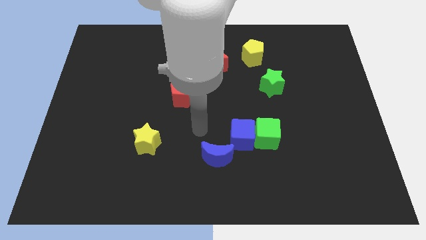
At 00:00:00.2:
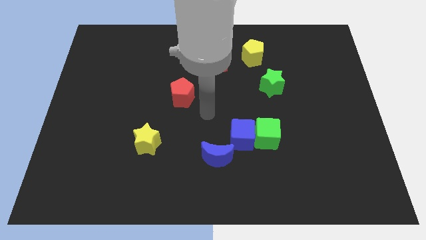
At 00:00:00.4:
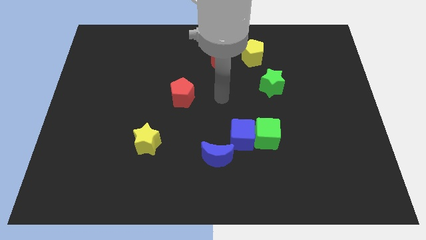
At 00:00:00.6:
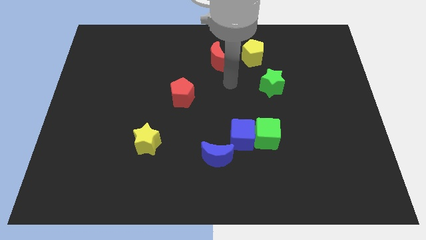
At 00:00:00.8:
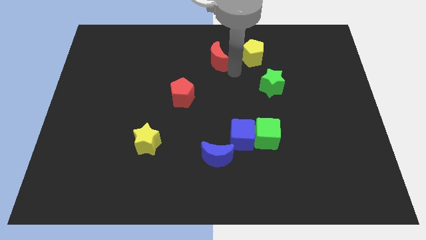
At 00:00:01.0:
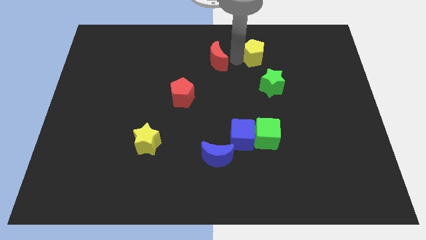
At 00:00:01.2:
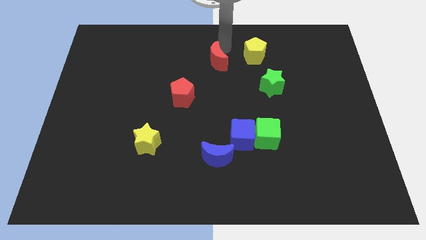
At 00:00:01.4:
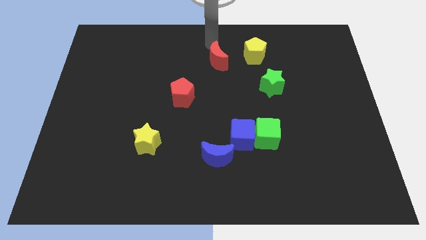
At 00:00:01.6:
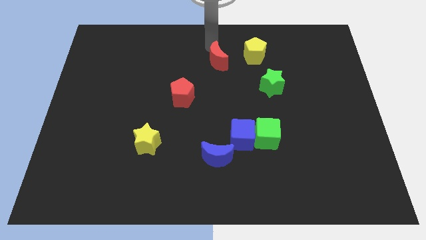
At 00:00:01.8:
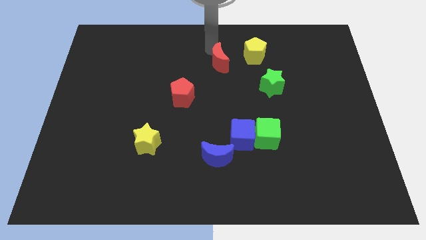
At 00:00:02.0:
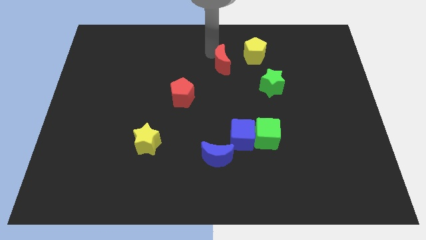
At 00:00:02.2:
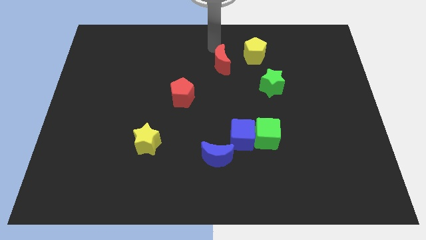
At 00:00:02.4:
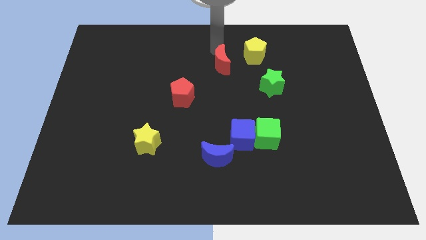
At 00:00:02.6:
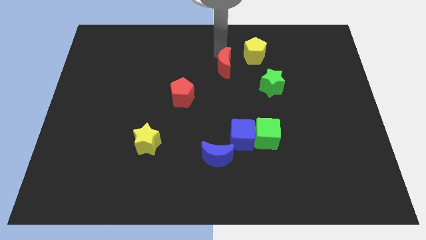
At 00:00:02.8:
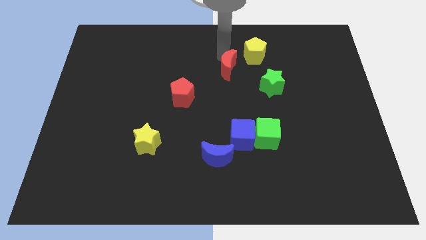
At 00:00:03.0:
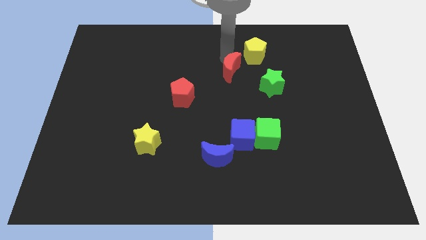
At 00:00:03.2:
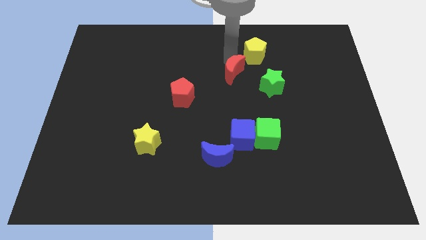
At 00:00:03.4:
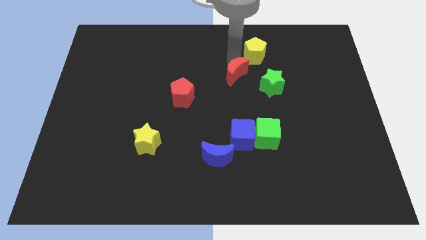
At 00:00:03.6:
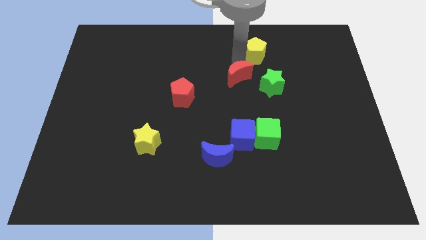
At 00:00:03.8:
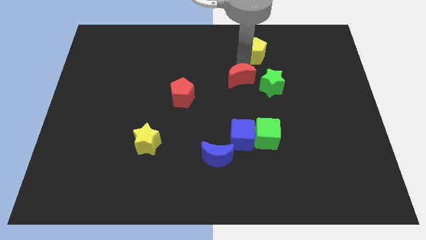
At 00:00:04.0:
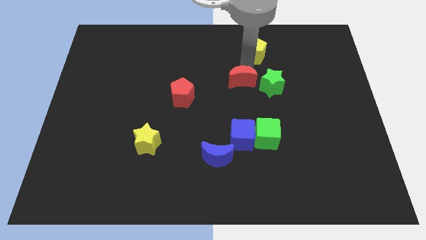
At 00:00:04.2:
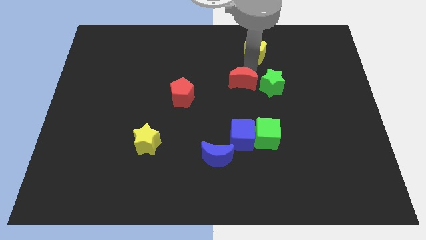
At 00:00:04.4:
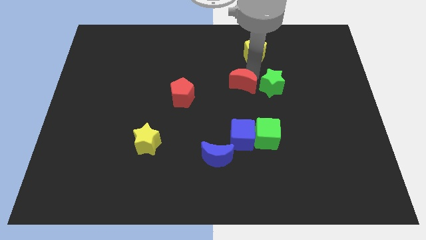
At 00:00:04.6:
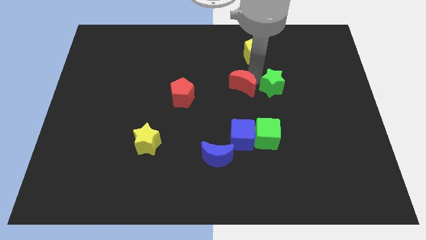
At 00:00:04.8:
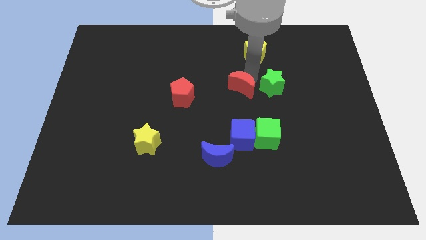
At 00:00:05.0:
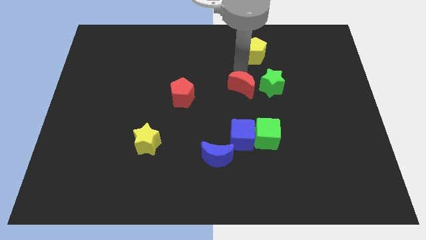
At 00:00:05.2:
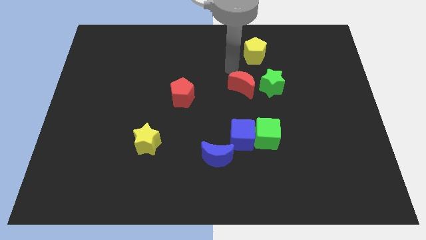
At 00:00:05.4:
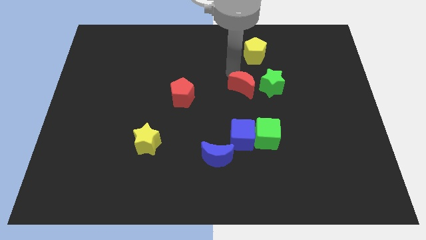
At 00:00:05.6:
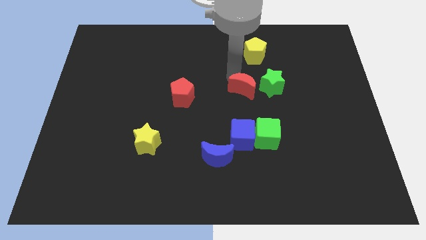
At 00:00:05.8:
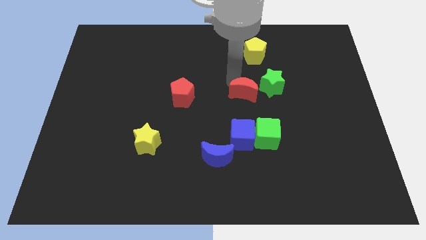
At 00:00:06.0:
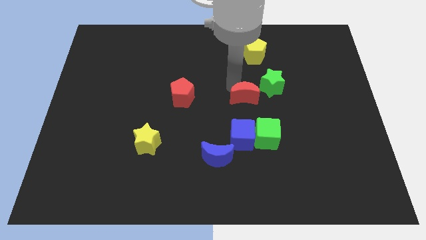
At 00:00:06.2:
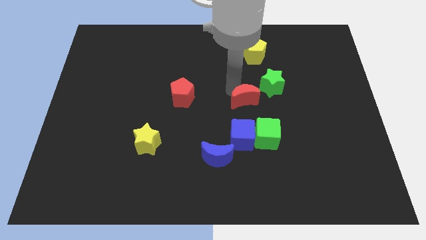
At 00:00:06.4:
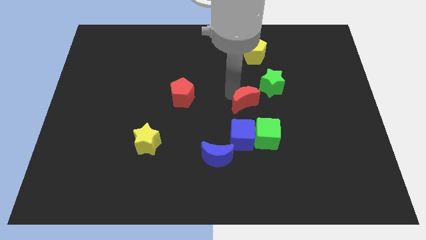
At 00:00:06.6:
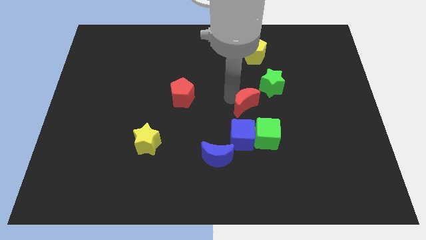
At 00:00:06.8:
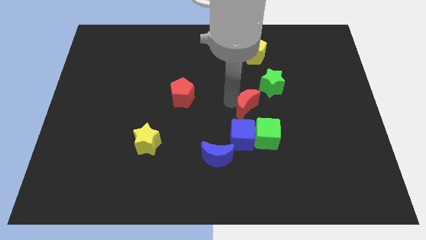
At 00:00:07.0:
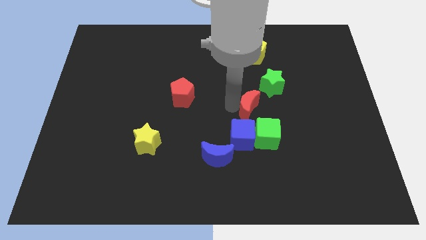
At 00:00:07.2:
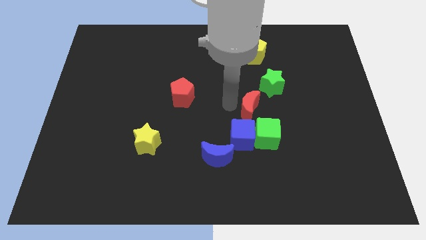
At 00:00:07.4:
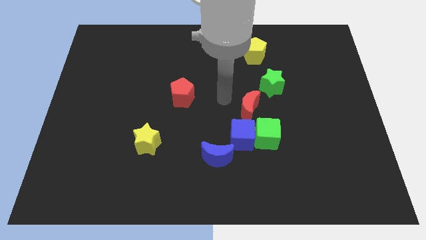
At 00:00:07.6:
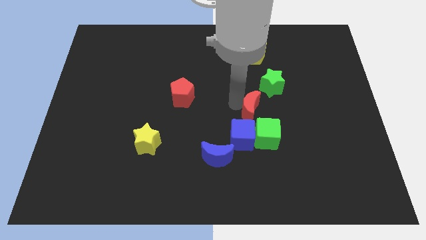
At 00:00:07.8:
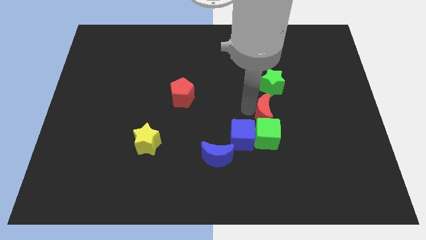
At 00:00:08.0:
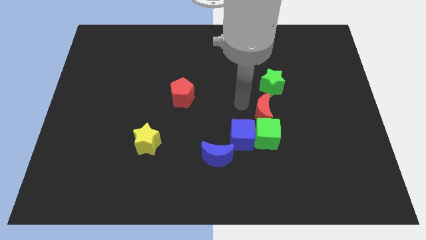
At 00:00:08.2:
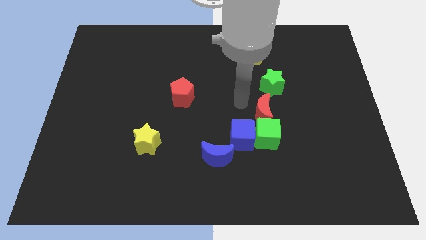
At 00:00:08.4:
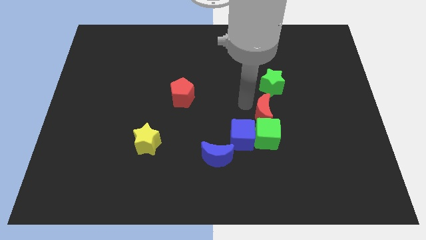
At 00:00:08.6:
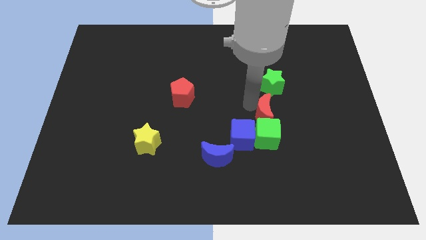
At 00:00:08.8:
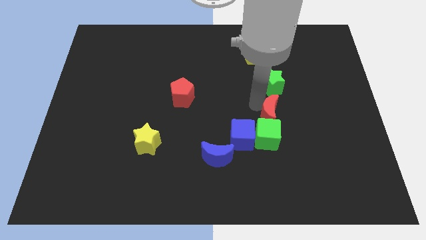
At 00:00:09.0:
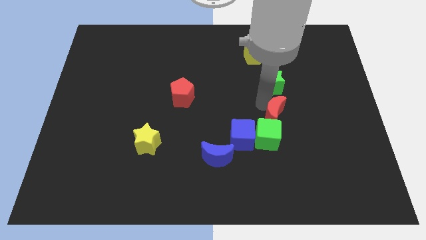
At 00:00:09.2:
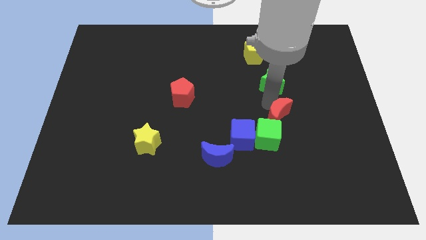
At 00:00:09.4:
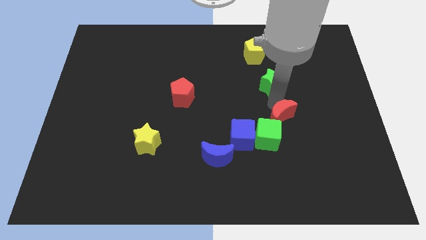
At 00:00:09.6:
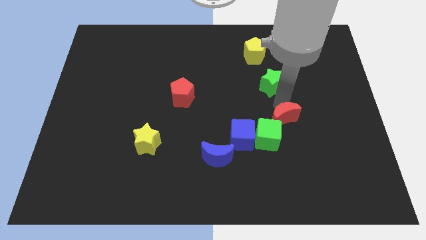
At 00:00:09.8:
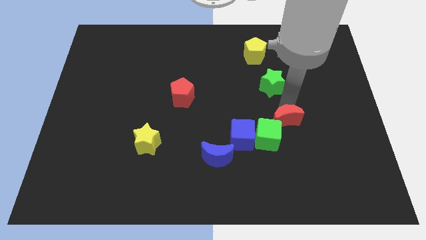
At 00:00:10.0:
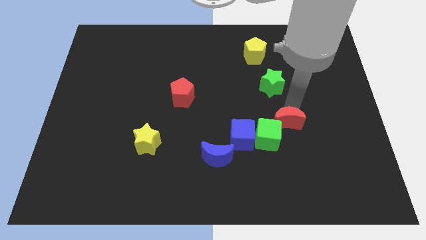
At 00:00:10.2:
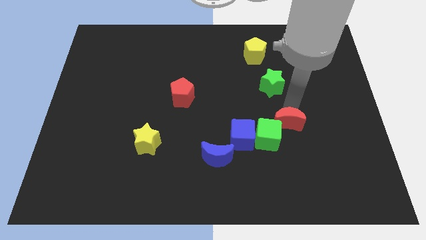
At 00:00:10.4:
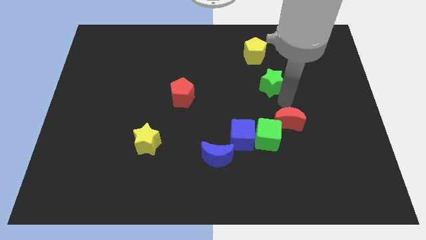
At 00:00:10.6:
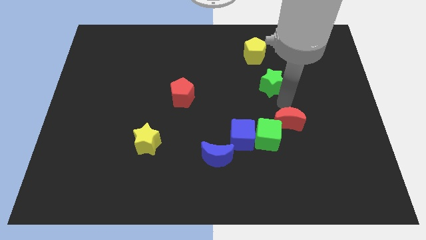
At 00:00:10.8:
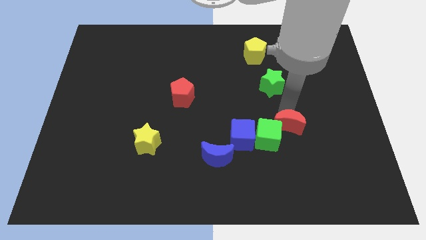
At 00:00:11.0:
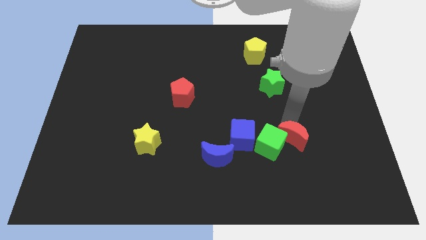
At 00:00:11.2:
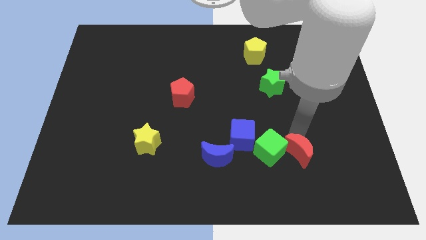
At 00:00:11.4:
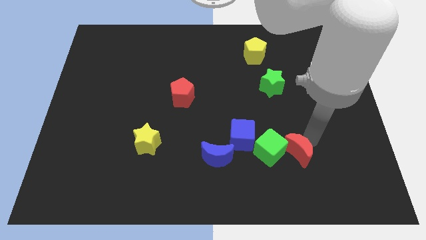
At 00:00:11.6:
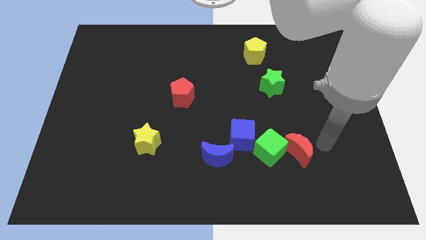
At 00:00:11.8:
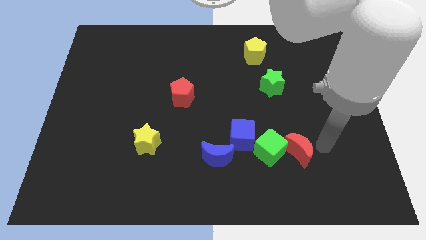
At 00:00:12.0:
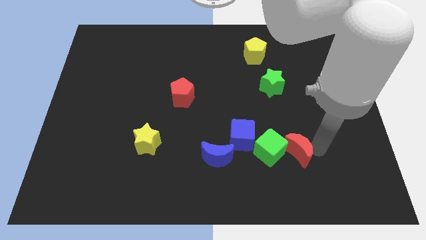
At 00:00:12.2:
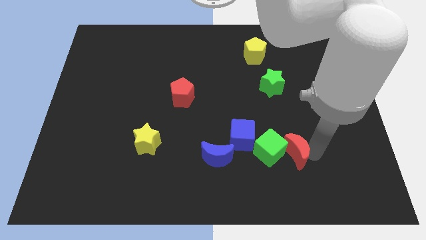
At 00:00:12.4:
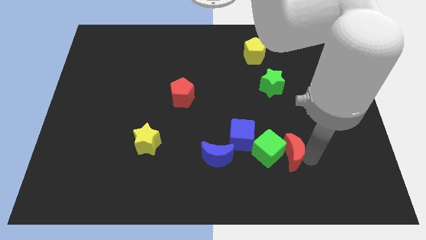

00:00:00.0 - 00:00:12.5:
slide the red moon to the right of the blue moon
